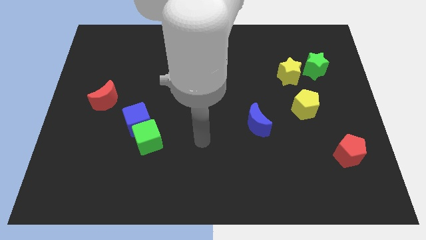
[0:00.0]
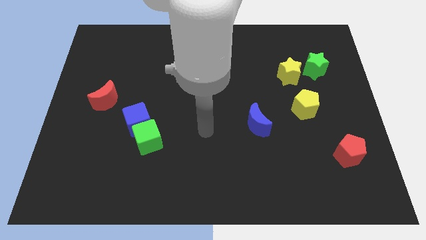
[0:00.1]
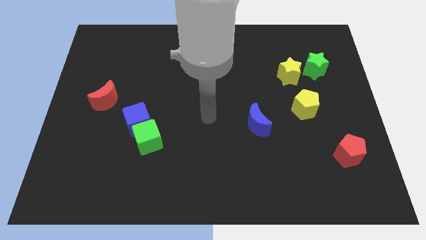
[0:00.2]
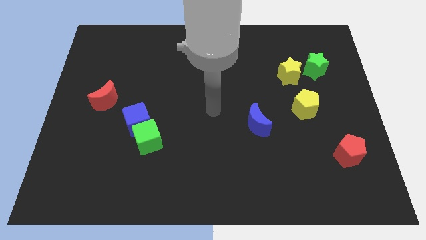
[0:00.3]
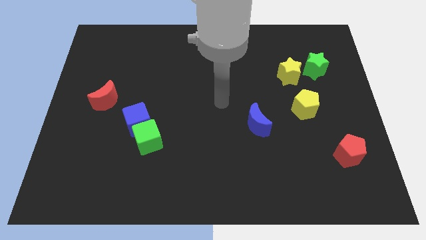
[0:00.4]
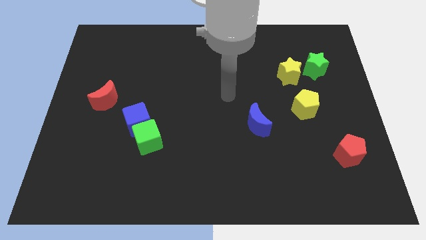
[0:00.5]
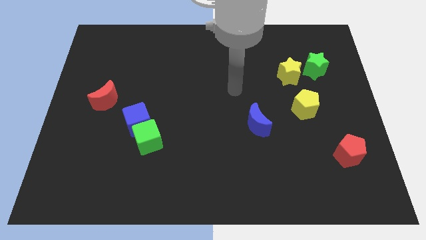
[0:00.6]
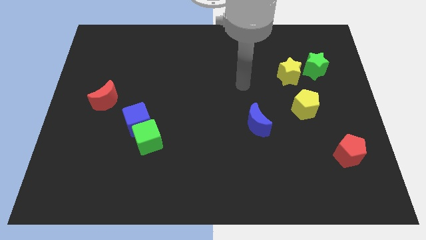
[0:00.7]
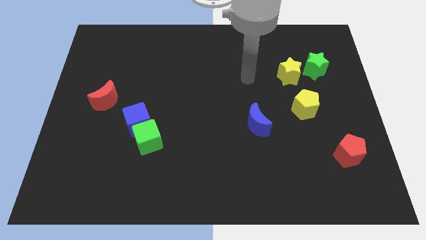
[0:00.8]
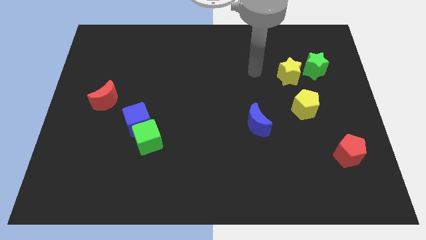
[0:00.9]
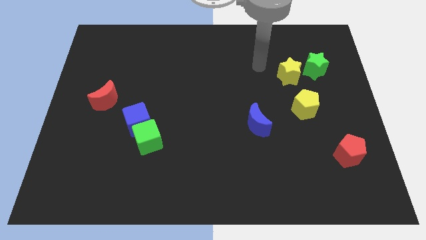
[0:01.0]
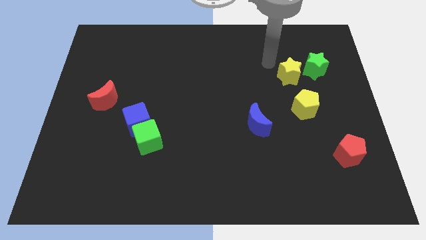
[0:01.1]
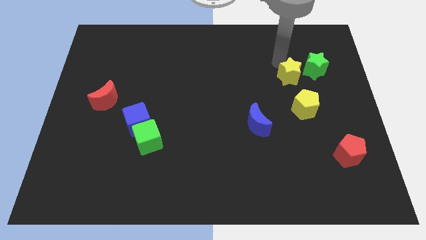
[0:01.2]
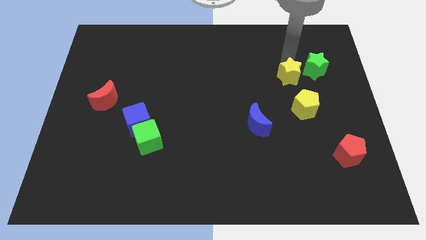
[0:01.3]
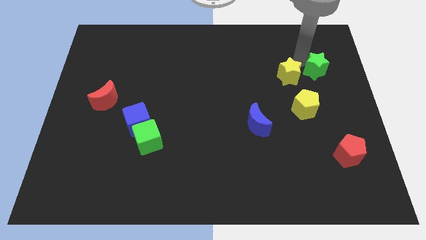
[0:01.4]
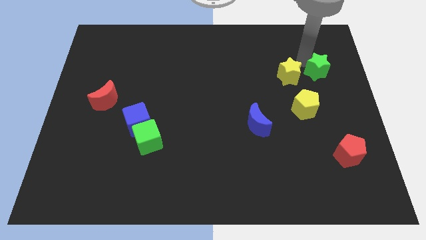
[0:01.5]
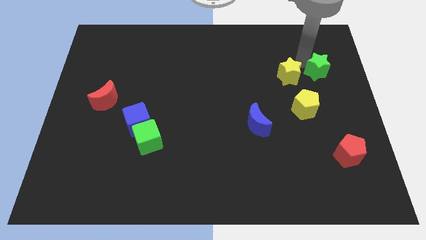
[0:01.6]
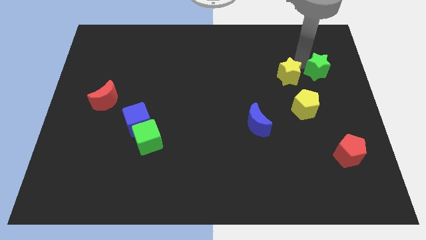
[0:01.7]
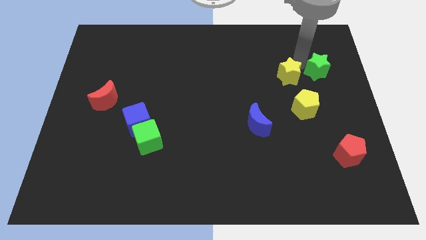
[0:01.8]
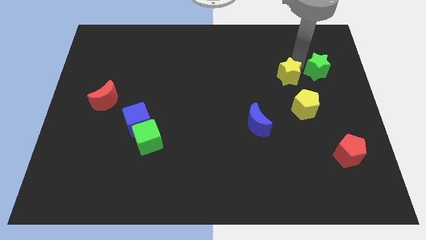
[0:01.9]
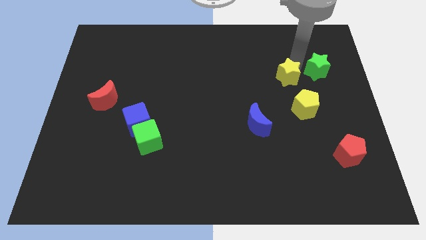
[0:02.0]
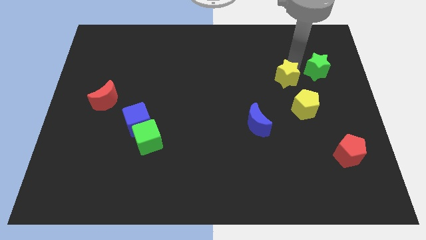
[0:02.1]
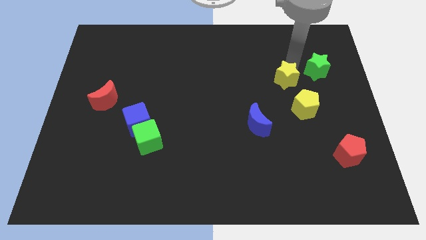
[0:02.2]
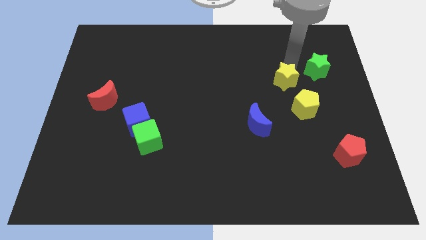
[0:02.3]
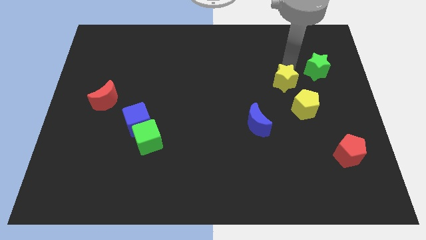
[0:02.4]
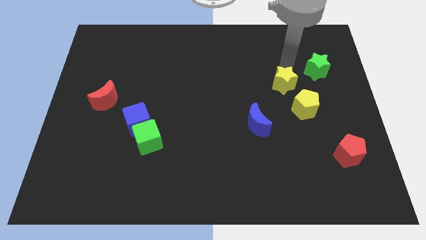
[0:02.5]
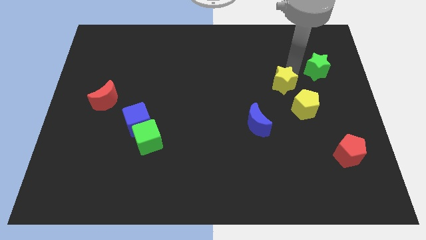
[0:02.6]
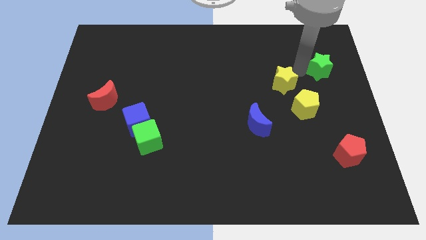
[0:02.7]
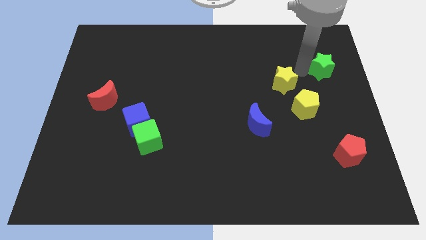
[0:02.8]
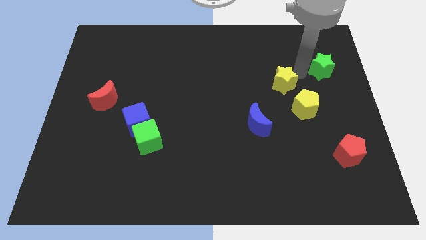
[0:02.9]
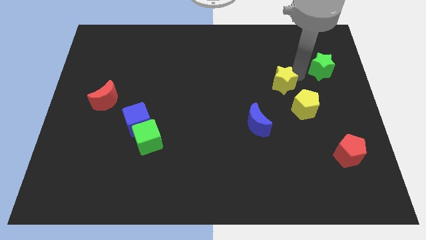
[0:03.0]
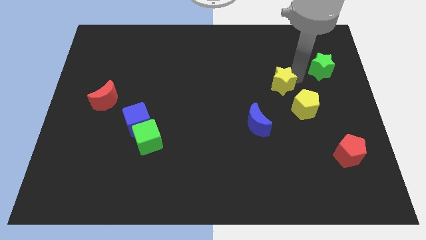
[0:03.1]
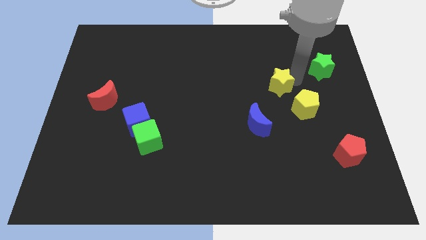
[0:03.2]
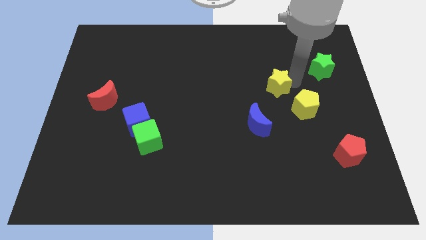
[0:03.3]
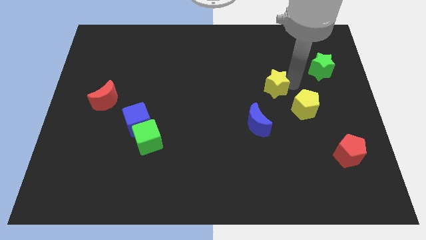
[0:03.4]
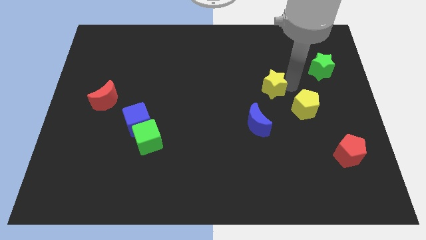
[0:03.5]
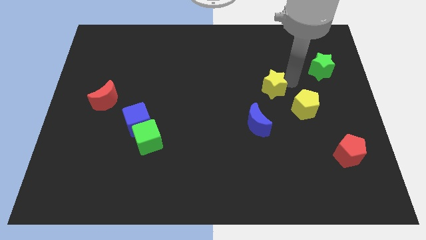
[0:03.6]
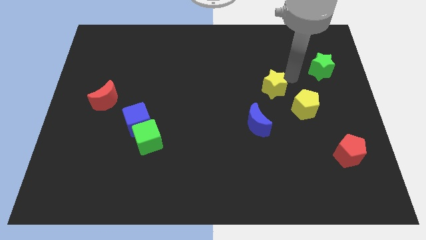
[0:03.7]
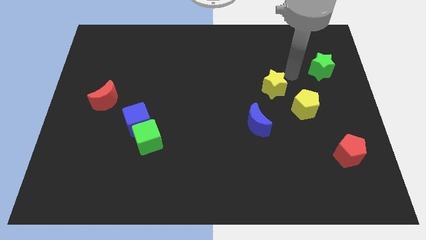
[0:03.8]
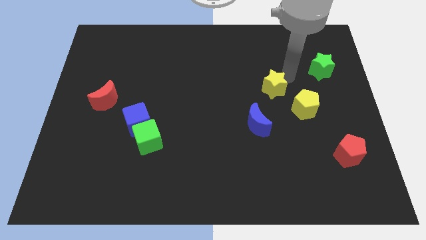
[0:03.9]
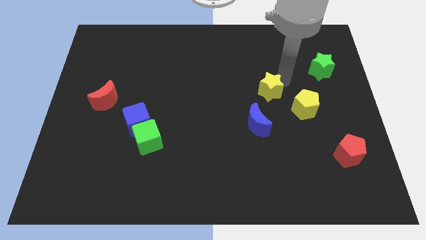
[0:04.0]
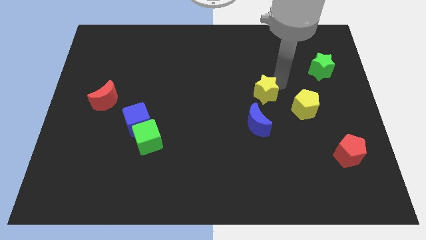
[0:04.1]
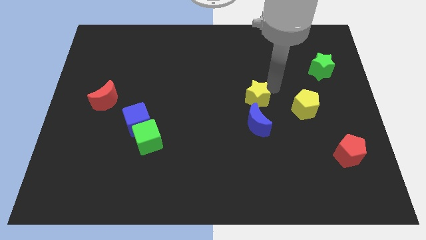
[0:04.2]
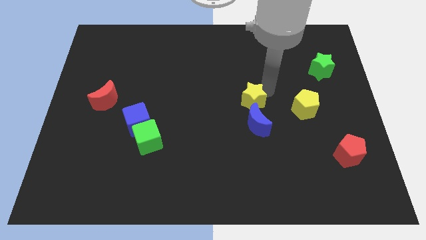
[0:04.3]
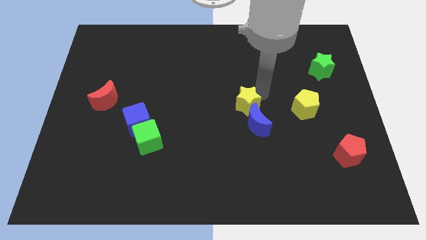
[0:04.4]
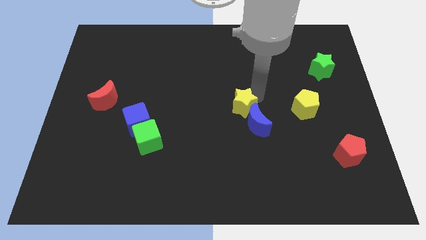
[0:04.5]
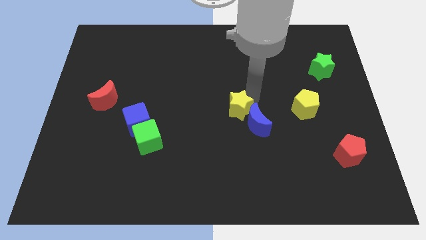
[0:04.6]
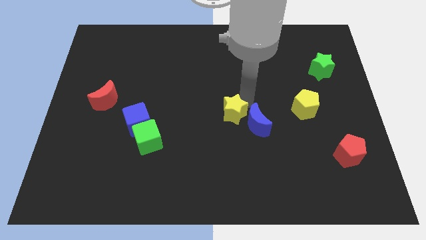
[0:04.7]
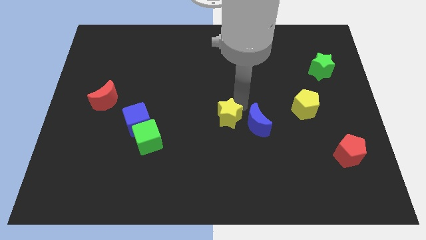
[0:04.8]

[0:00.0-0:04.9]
move the yellow star down and then left

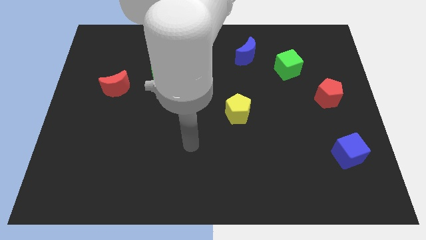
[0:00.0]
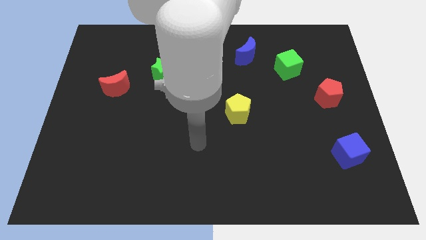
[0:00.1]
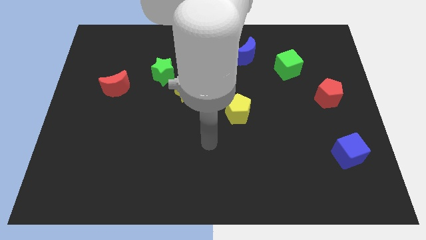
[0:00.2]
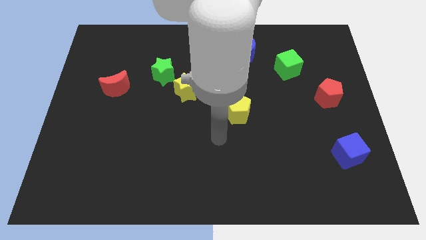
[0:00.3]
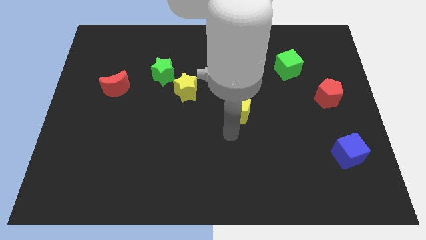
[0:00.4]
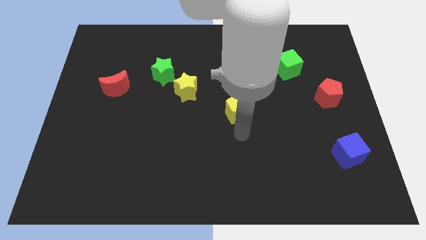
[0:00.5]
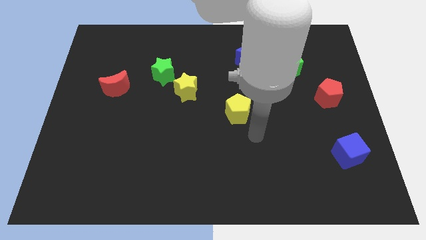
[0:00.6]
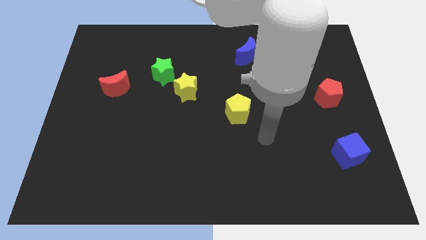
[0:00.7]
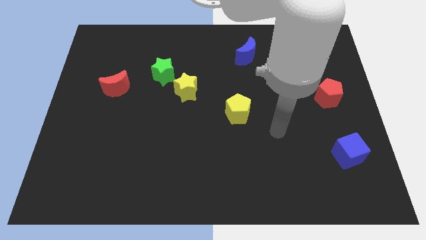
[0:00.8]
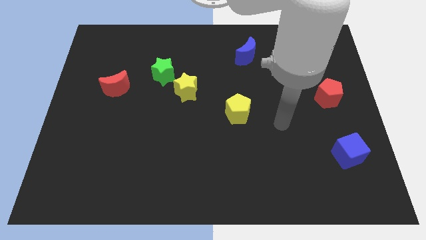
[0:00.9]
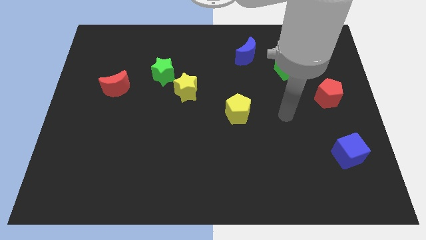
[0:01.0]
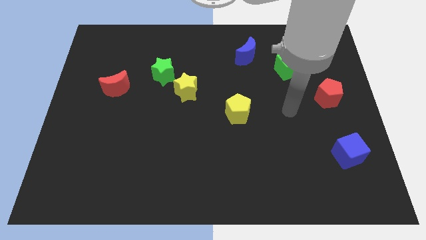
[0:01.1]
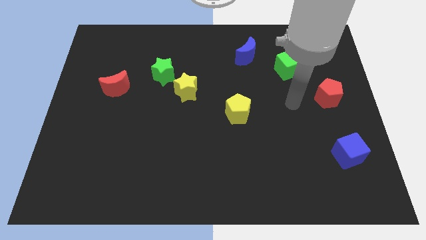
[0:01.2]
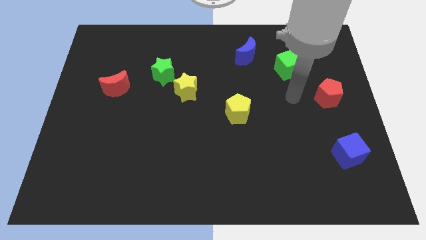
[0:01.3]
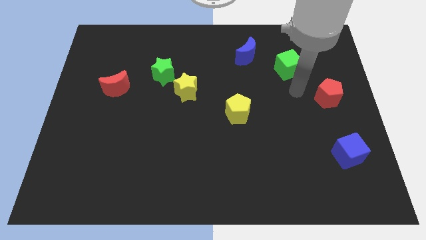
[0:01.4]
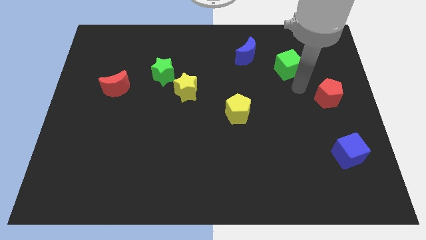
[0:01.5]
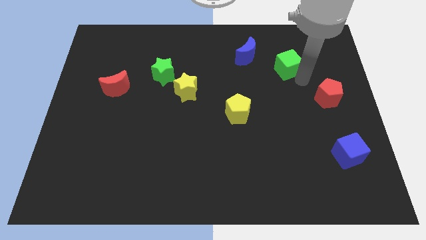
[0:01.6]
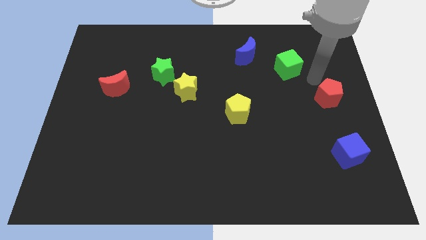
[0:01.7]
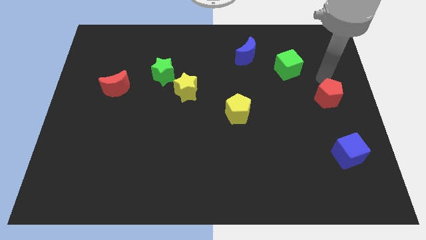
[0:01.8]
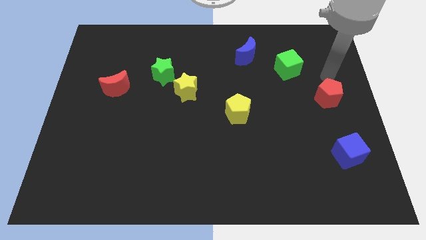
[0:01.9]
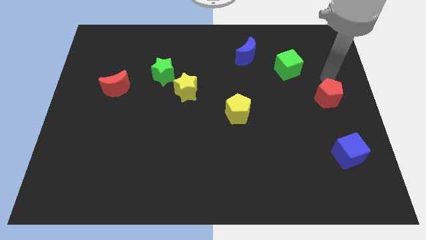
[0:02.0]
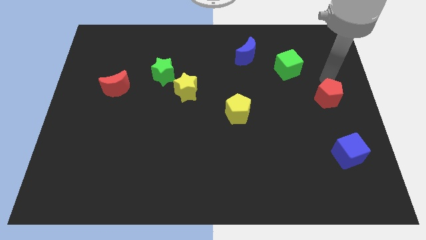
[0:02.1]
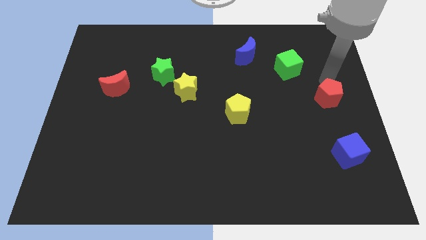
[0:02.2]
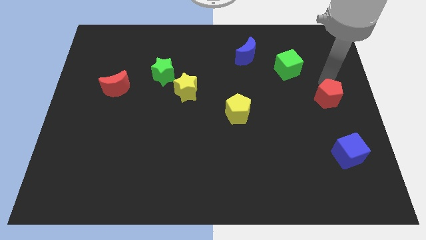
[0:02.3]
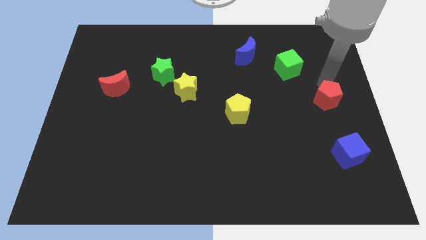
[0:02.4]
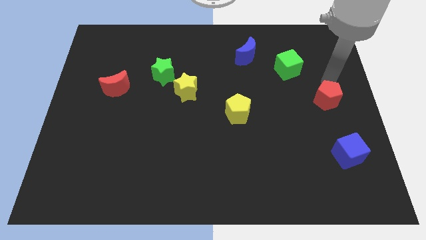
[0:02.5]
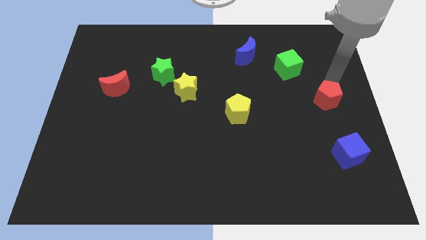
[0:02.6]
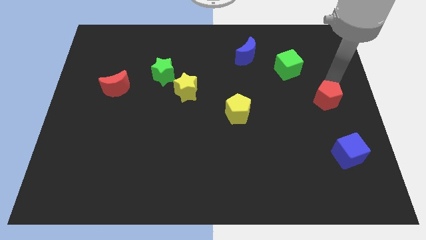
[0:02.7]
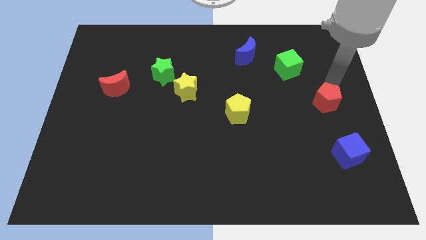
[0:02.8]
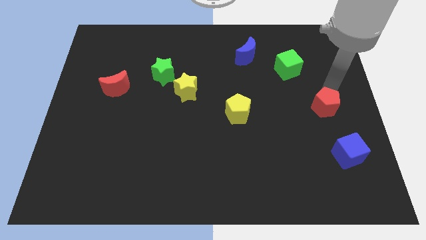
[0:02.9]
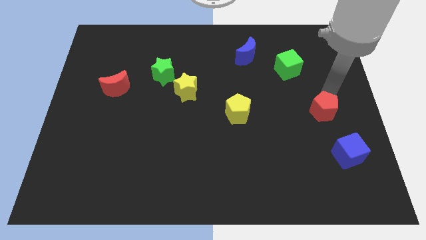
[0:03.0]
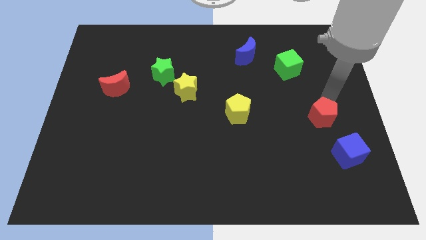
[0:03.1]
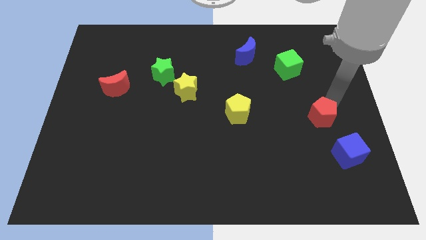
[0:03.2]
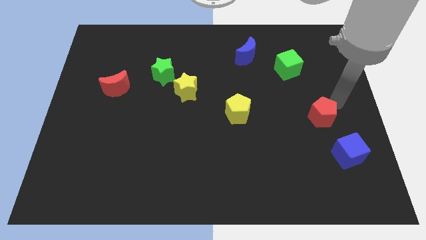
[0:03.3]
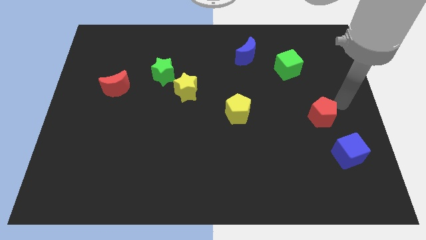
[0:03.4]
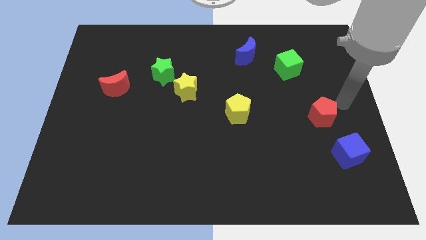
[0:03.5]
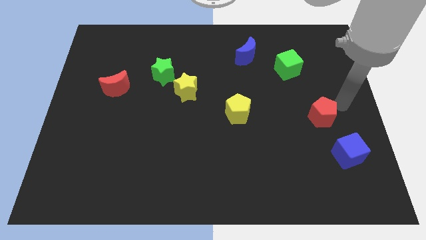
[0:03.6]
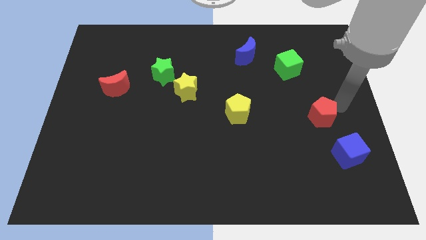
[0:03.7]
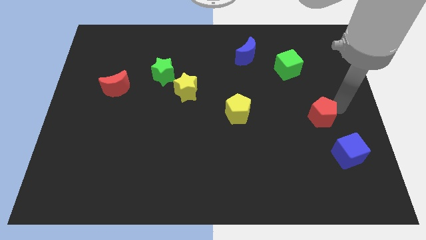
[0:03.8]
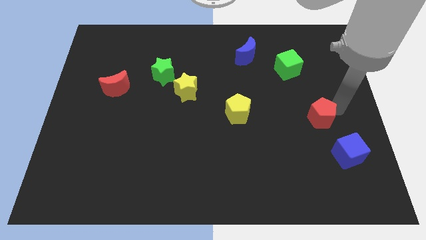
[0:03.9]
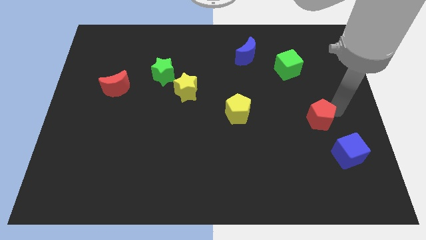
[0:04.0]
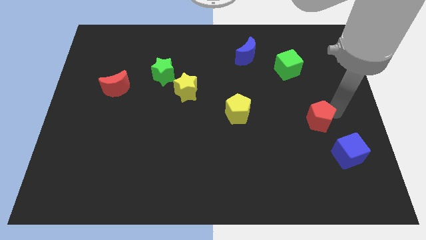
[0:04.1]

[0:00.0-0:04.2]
slightly push the red pentagon downwards and to the left
